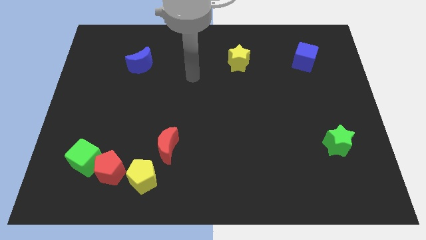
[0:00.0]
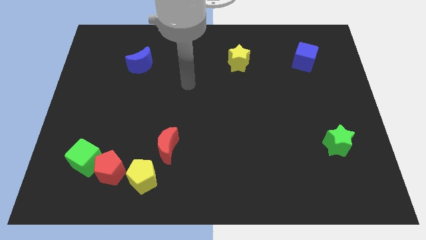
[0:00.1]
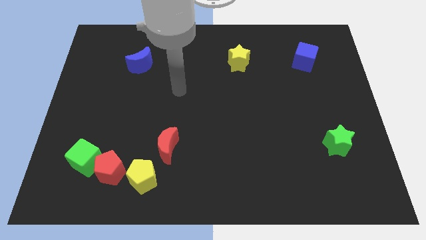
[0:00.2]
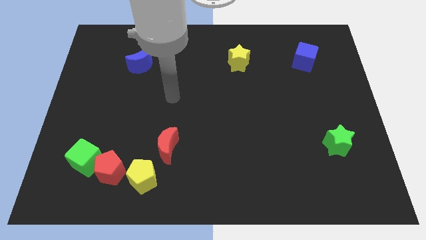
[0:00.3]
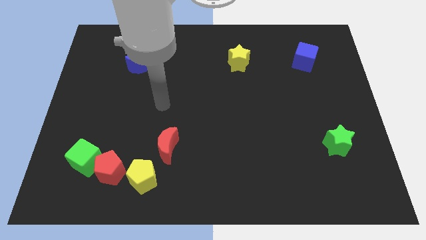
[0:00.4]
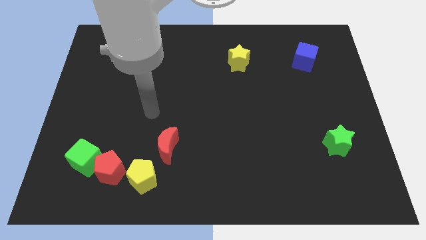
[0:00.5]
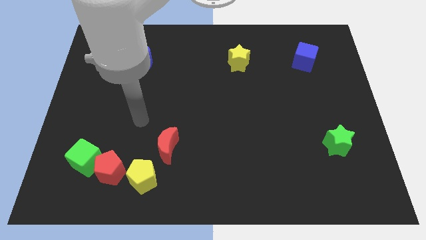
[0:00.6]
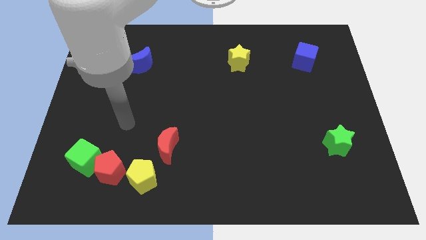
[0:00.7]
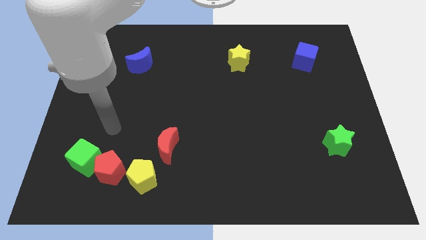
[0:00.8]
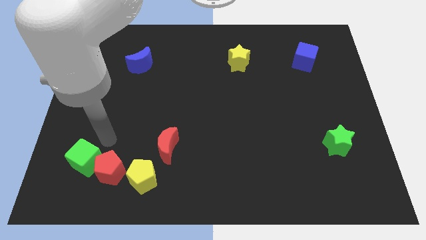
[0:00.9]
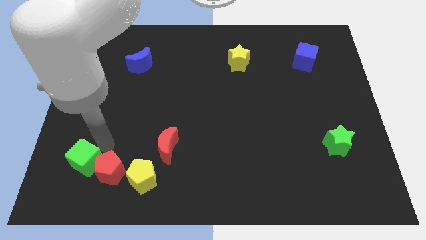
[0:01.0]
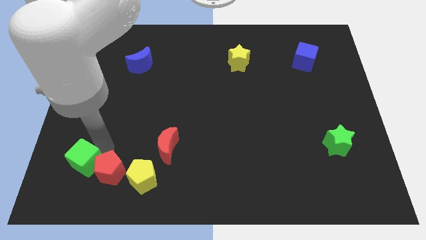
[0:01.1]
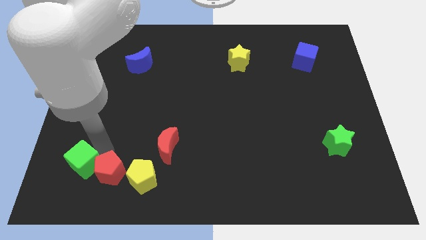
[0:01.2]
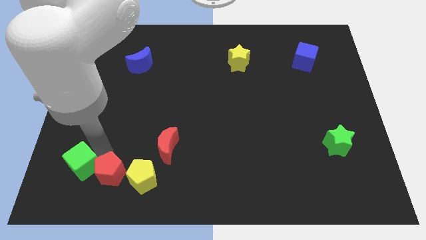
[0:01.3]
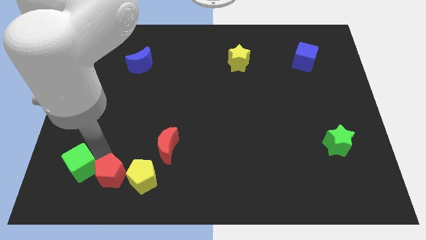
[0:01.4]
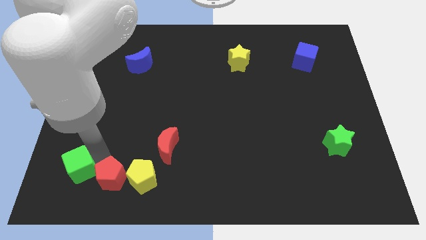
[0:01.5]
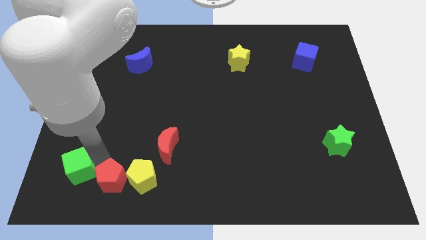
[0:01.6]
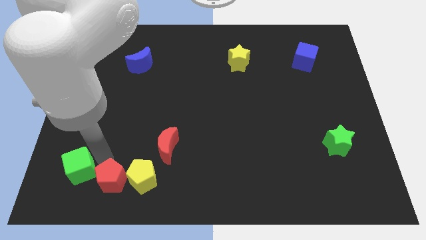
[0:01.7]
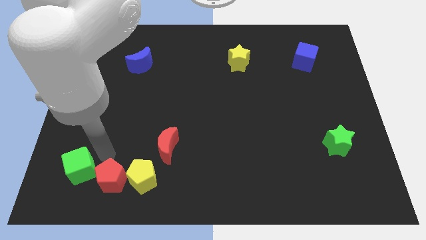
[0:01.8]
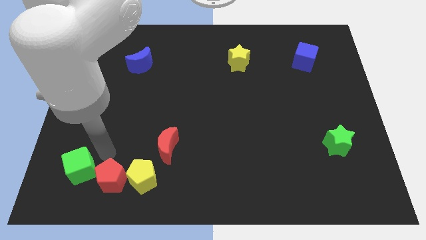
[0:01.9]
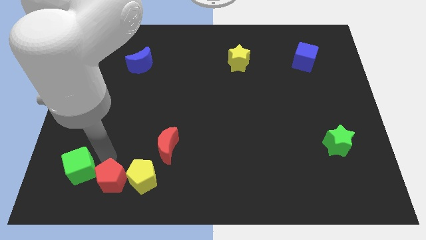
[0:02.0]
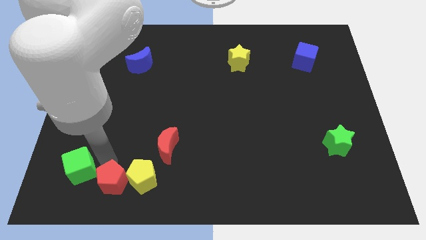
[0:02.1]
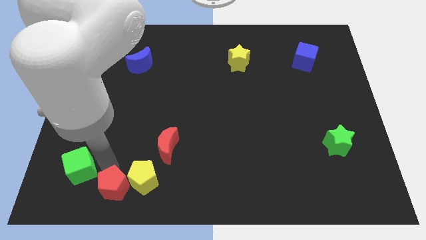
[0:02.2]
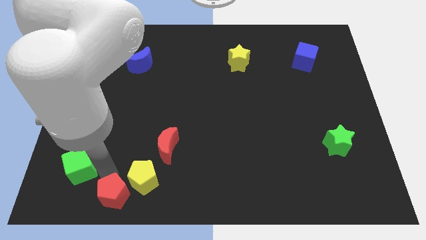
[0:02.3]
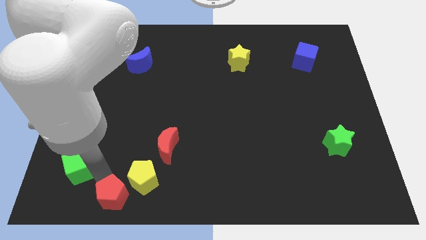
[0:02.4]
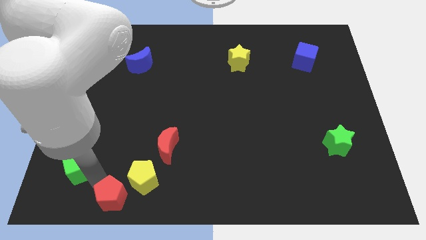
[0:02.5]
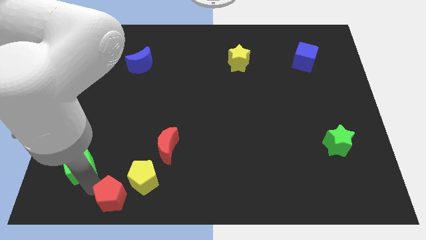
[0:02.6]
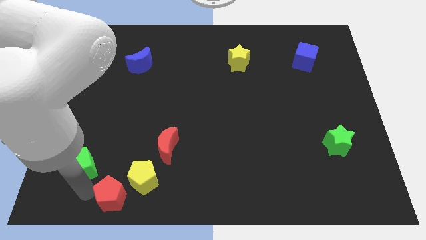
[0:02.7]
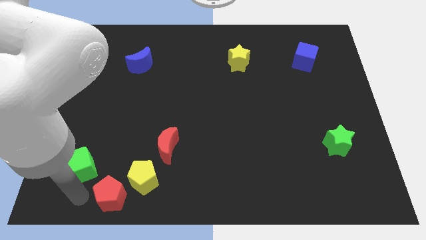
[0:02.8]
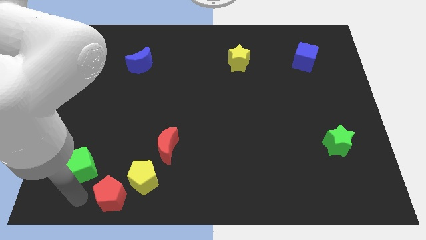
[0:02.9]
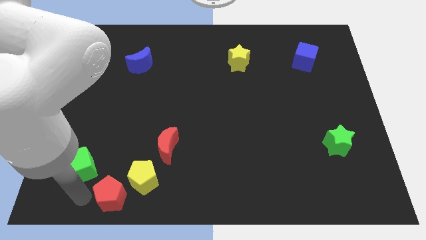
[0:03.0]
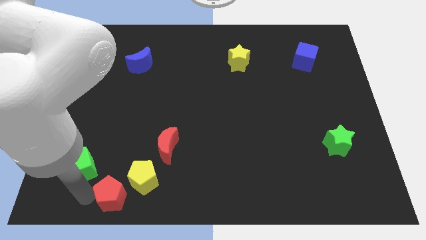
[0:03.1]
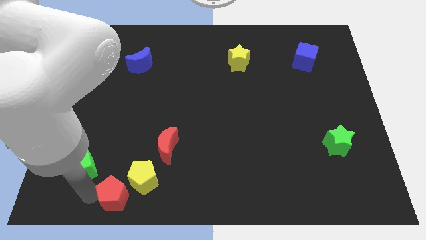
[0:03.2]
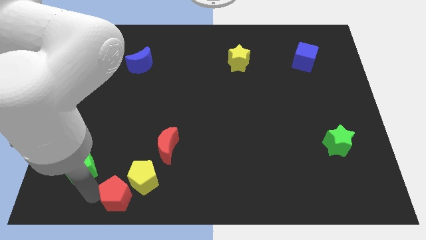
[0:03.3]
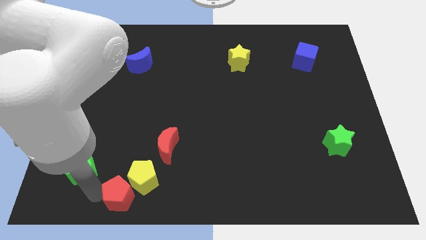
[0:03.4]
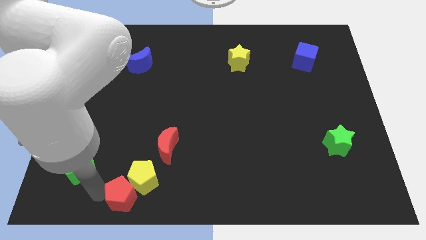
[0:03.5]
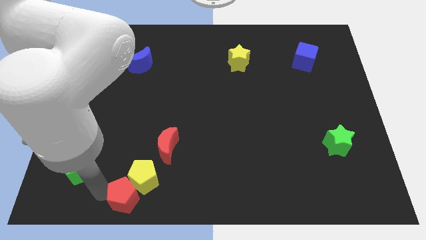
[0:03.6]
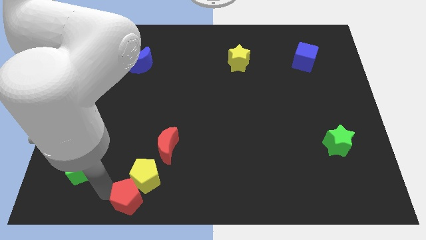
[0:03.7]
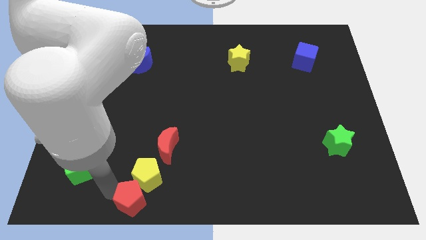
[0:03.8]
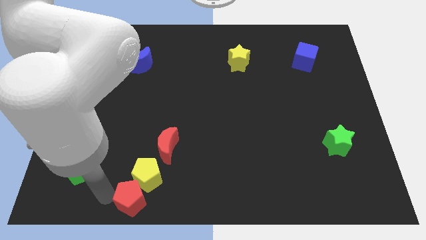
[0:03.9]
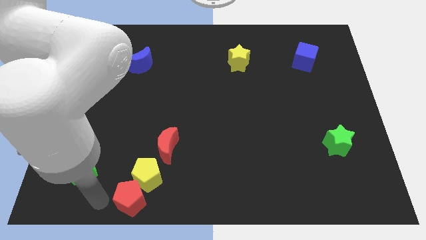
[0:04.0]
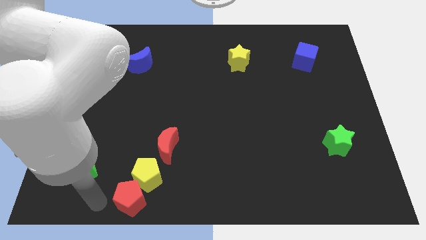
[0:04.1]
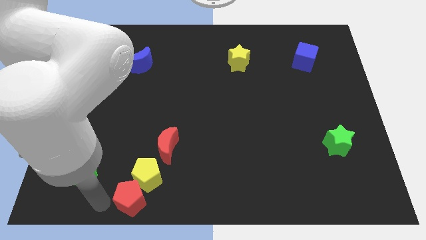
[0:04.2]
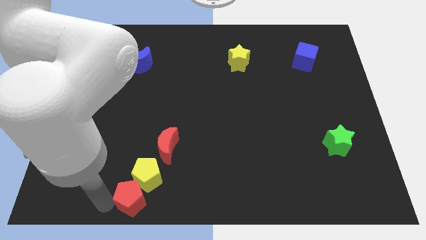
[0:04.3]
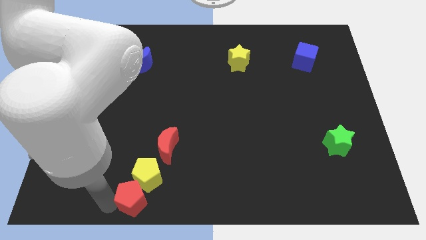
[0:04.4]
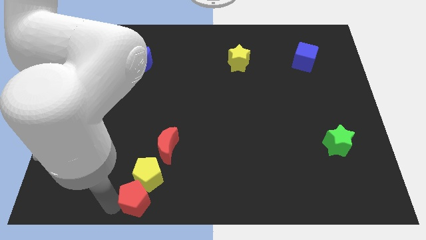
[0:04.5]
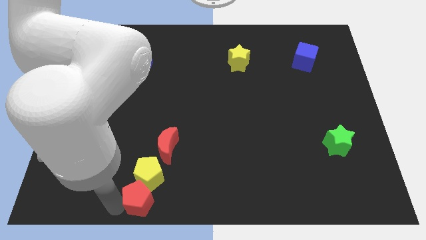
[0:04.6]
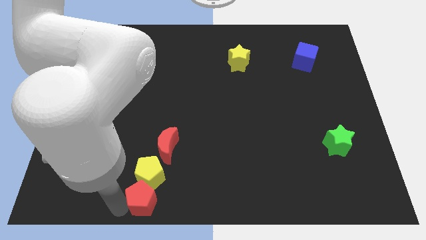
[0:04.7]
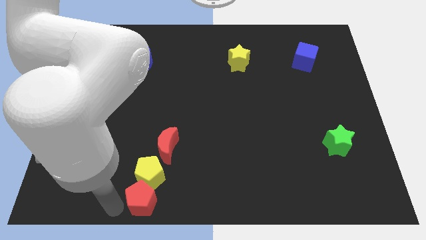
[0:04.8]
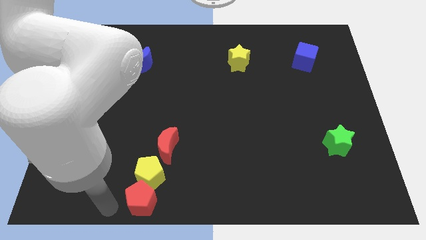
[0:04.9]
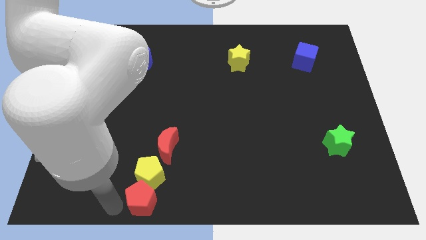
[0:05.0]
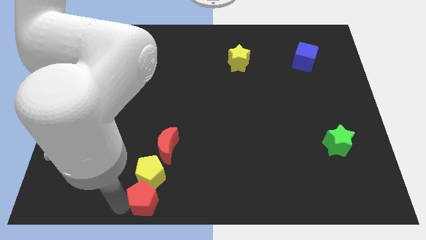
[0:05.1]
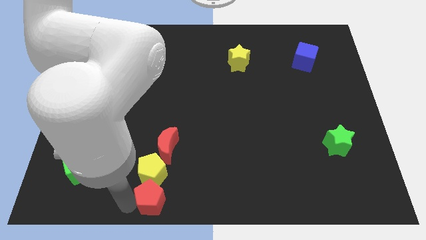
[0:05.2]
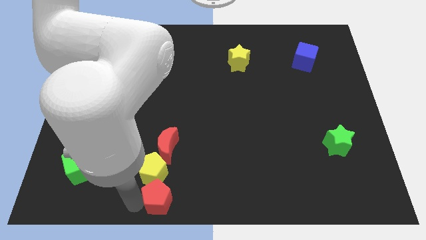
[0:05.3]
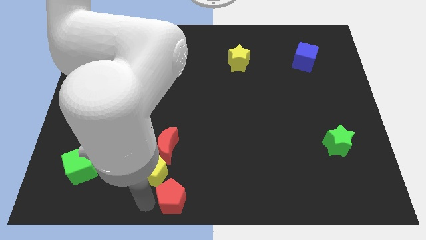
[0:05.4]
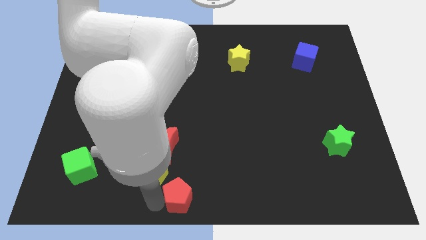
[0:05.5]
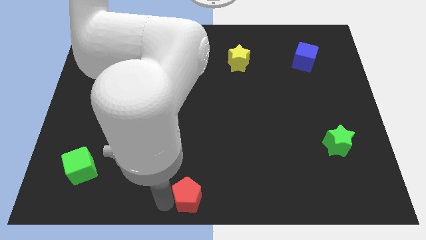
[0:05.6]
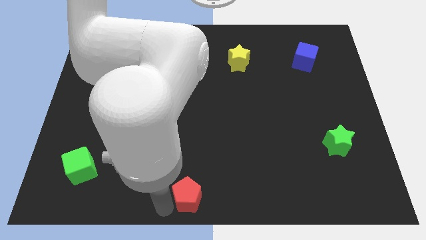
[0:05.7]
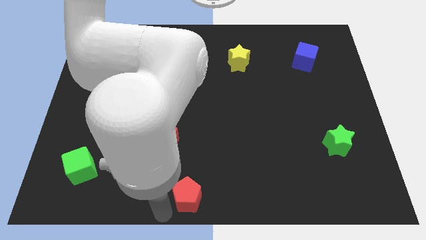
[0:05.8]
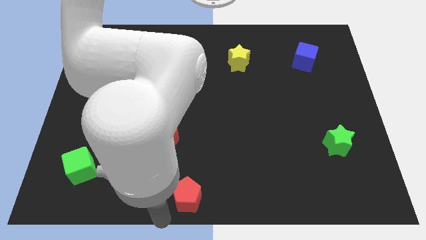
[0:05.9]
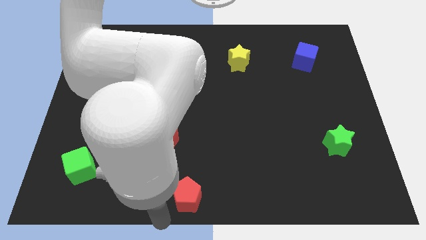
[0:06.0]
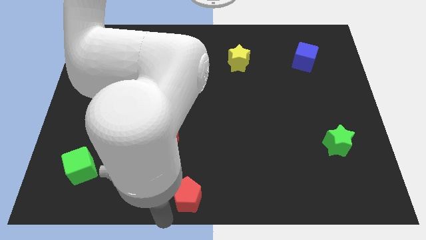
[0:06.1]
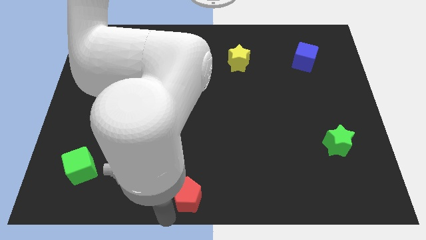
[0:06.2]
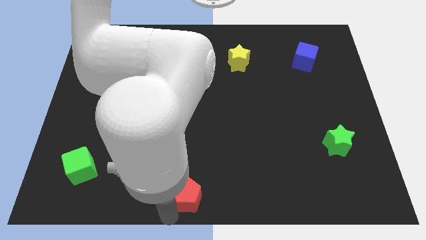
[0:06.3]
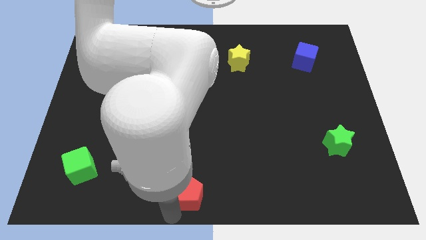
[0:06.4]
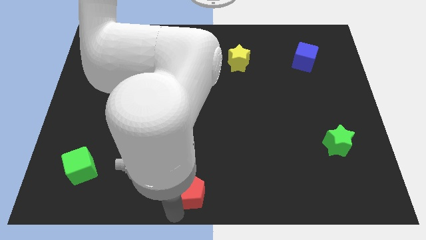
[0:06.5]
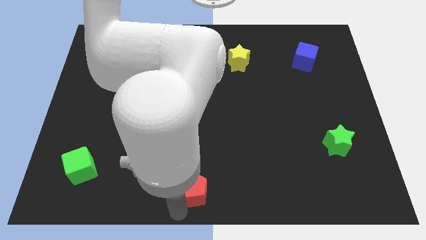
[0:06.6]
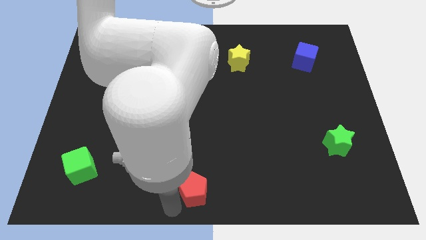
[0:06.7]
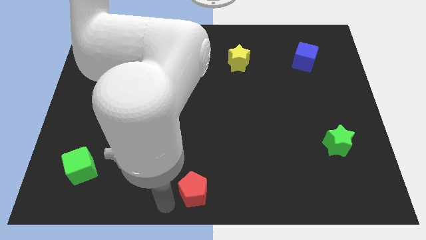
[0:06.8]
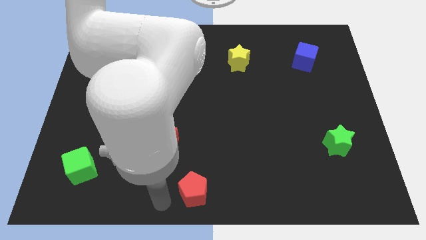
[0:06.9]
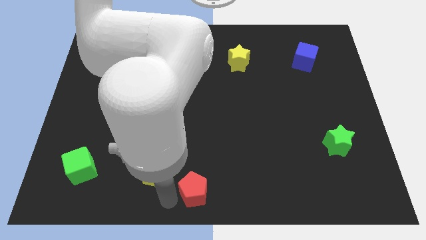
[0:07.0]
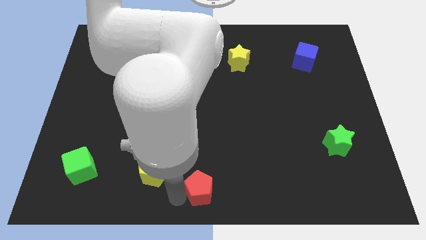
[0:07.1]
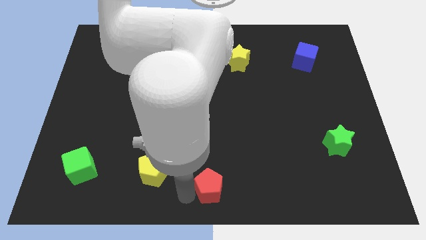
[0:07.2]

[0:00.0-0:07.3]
slide the red pentagon to the right

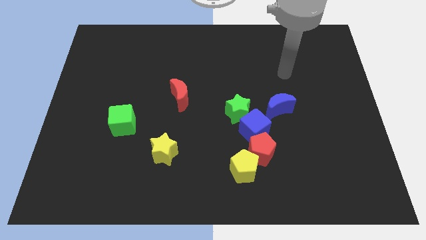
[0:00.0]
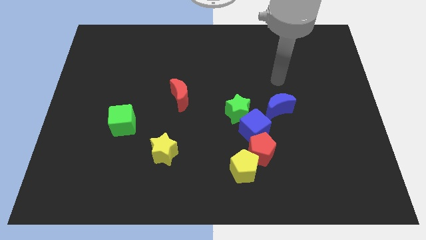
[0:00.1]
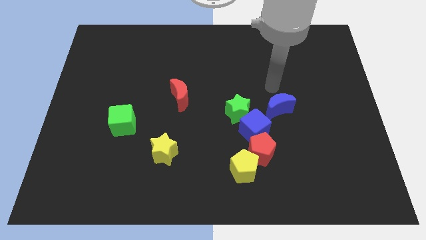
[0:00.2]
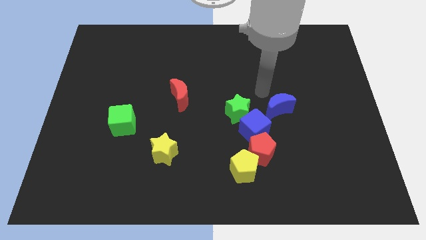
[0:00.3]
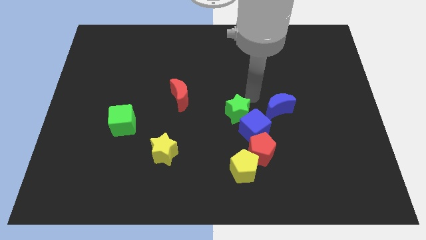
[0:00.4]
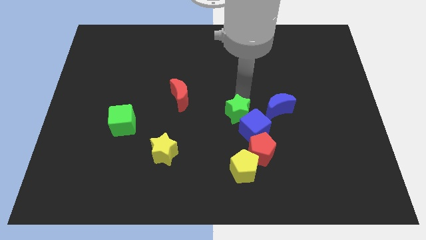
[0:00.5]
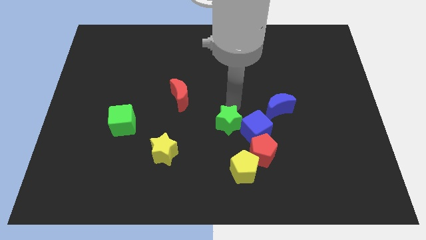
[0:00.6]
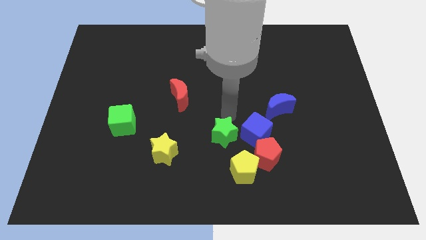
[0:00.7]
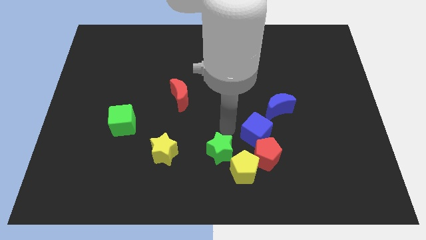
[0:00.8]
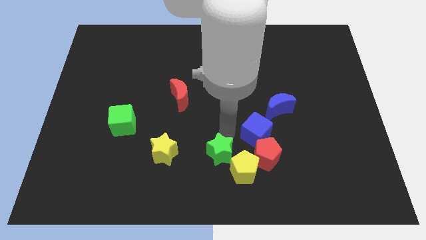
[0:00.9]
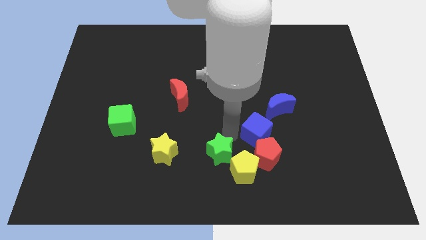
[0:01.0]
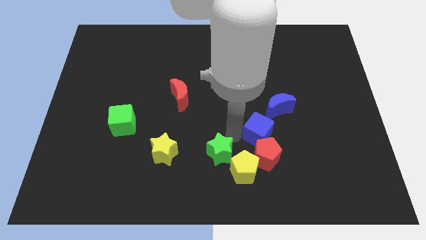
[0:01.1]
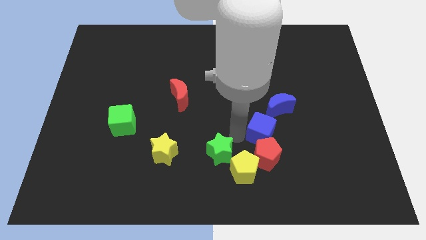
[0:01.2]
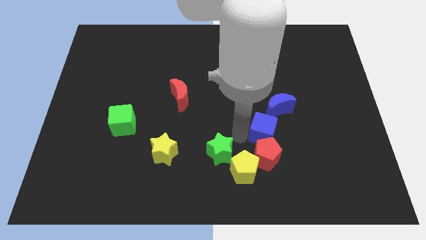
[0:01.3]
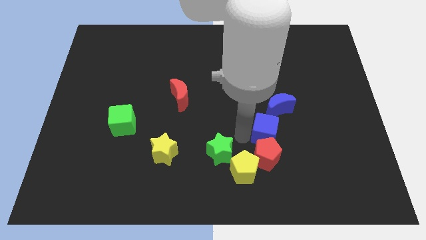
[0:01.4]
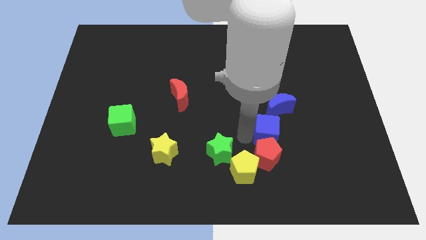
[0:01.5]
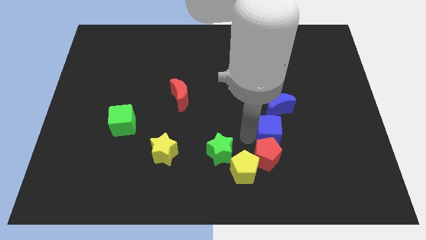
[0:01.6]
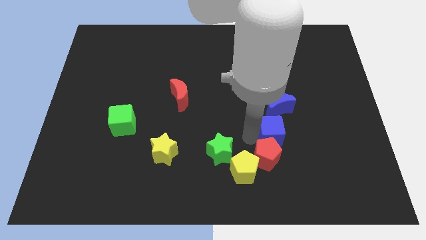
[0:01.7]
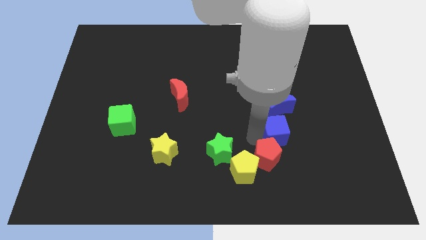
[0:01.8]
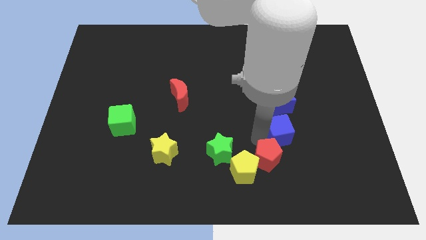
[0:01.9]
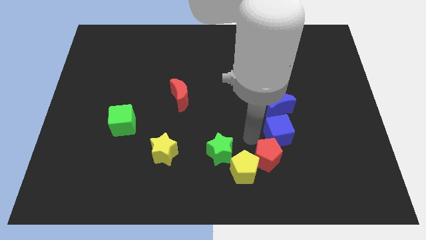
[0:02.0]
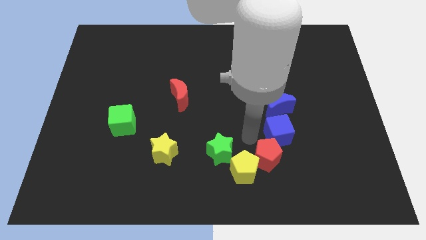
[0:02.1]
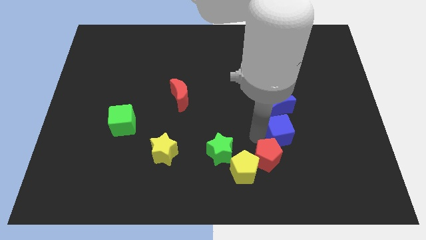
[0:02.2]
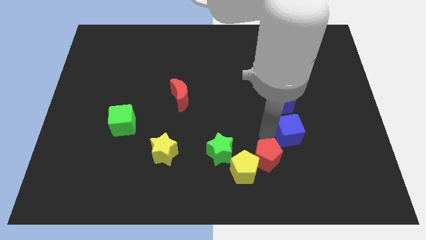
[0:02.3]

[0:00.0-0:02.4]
move the blue cube a little bit right
